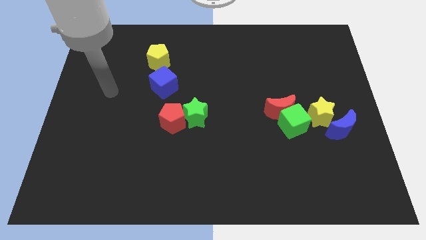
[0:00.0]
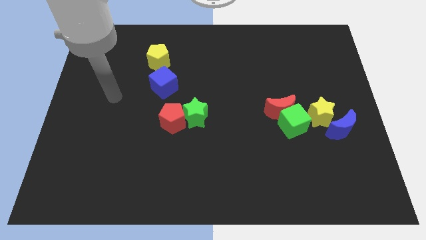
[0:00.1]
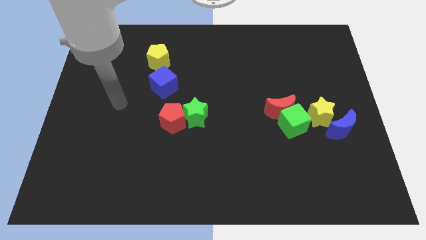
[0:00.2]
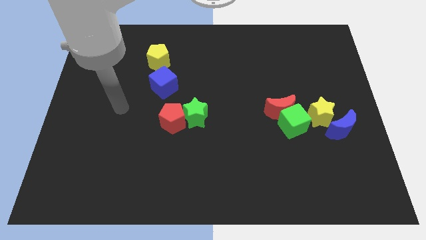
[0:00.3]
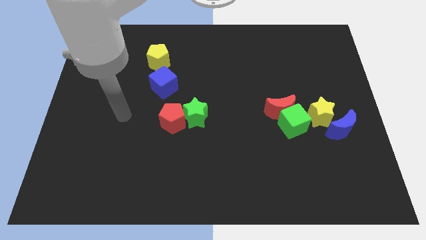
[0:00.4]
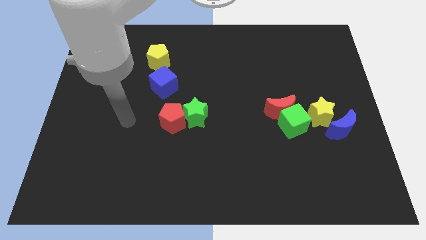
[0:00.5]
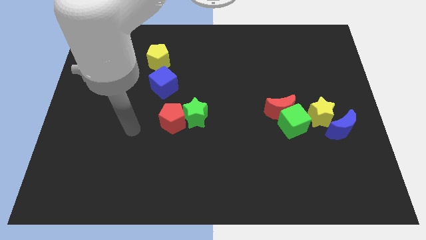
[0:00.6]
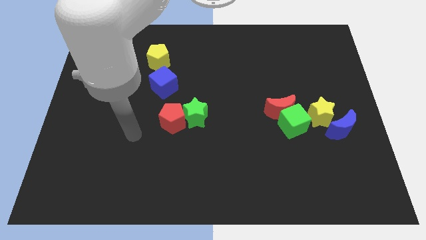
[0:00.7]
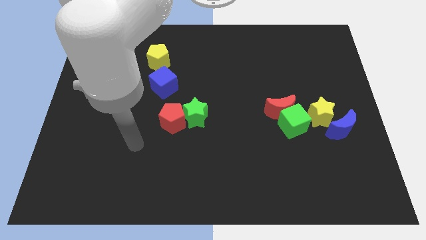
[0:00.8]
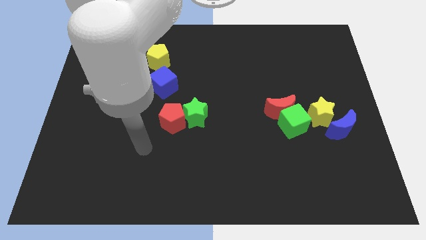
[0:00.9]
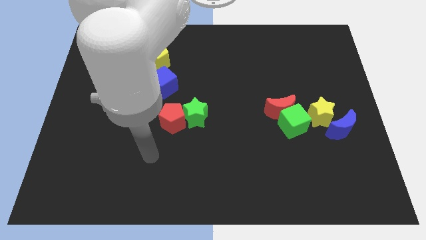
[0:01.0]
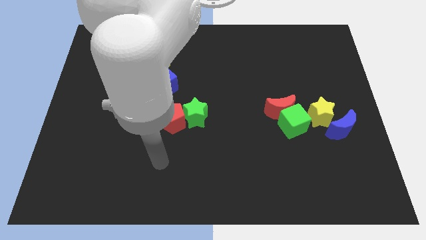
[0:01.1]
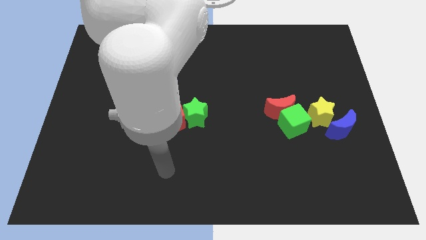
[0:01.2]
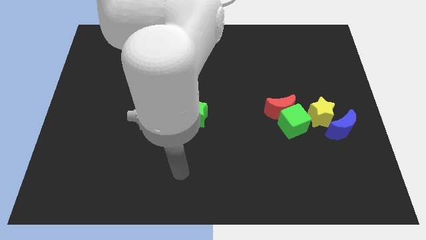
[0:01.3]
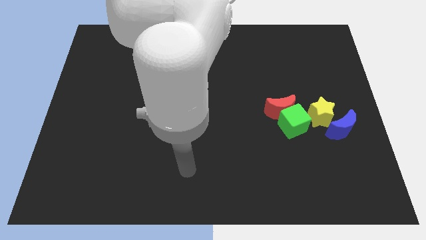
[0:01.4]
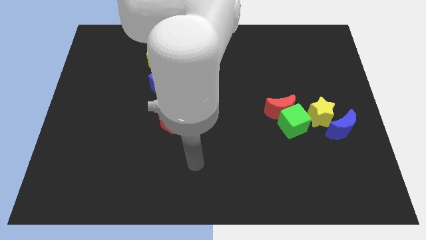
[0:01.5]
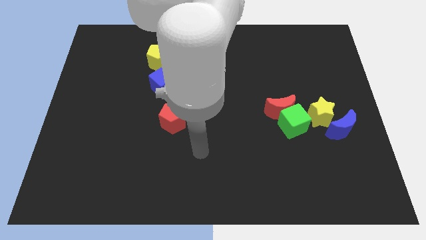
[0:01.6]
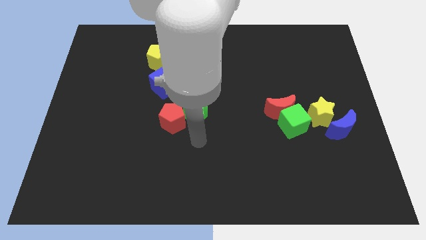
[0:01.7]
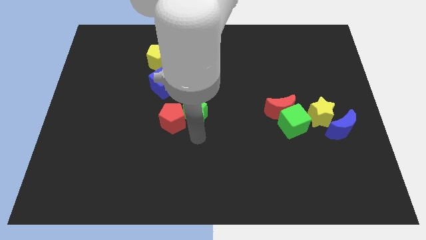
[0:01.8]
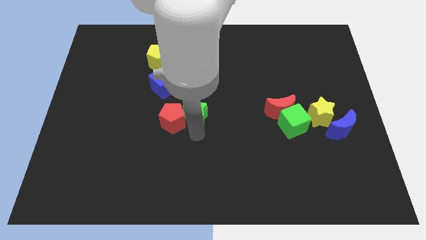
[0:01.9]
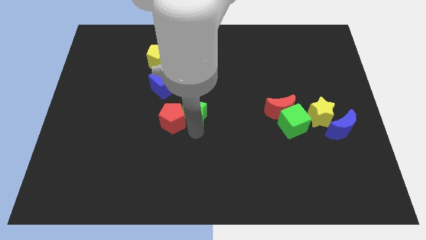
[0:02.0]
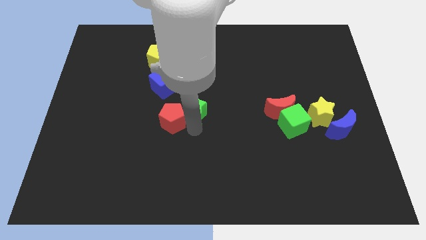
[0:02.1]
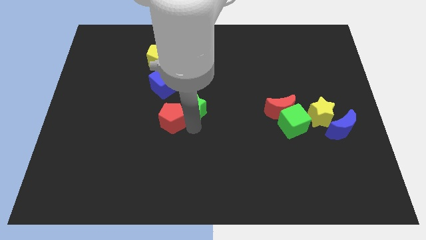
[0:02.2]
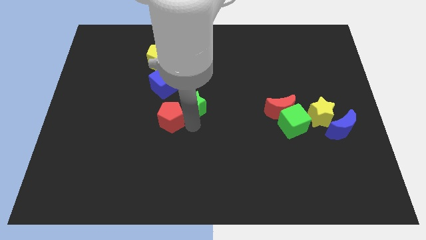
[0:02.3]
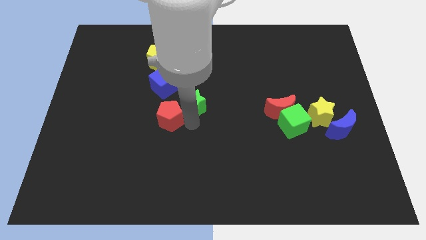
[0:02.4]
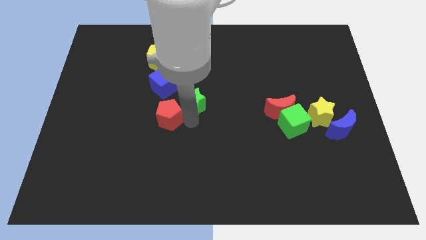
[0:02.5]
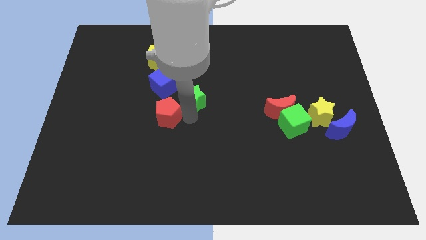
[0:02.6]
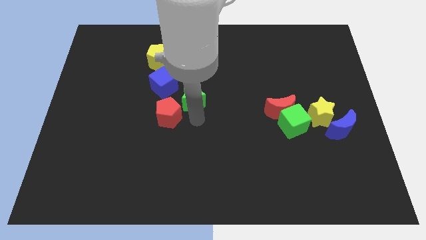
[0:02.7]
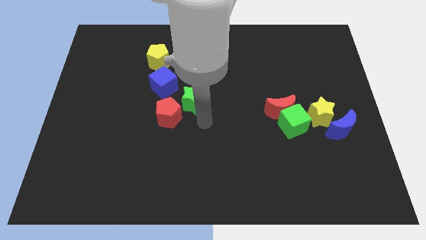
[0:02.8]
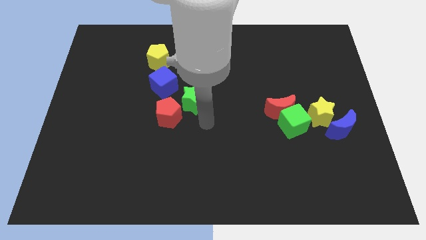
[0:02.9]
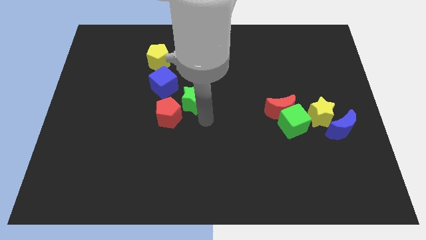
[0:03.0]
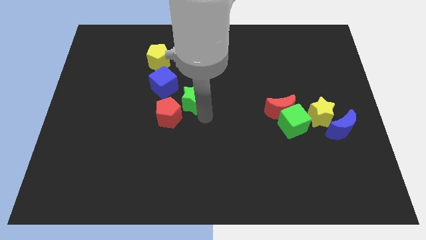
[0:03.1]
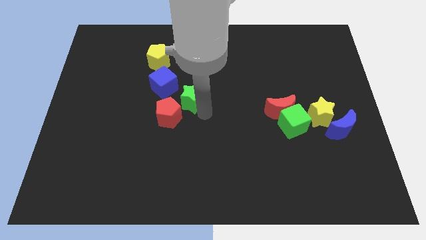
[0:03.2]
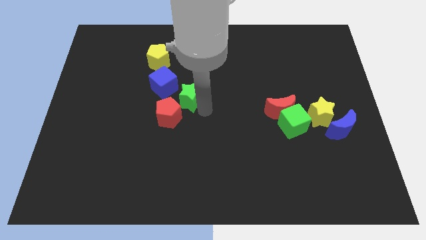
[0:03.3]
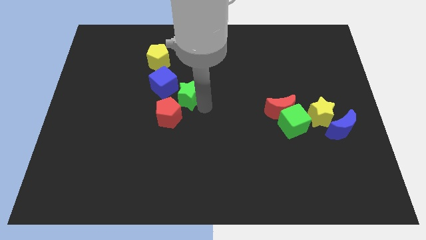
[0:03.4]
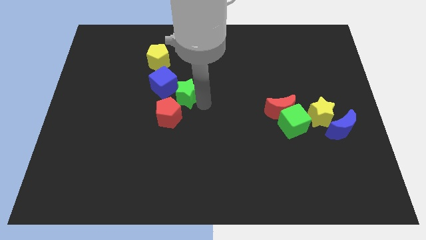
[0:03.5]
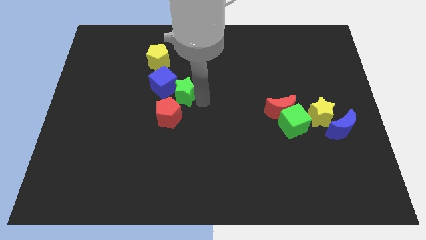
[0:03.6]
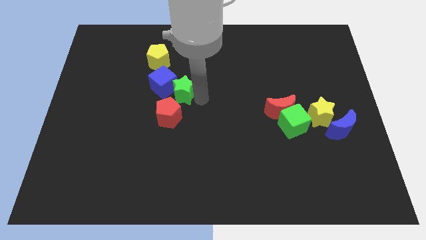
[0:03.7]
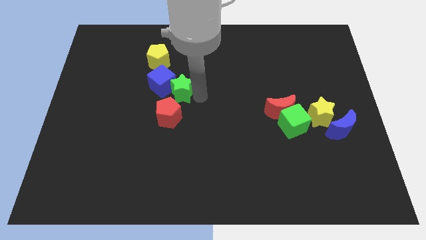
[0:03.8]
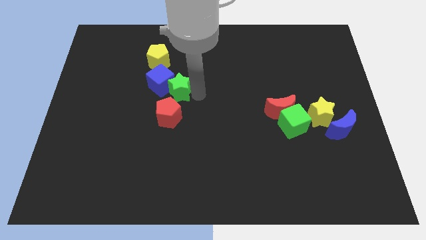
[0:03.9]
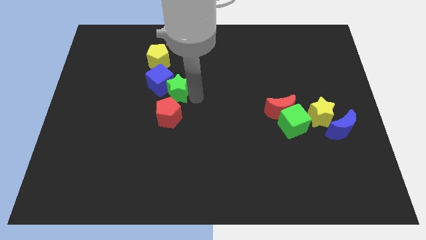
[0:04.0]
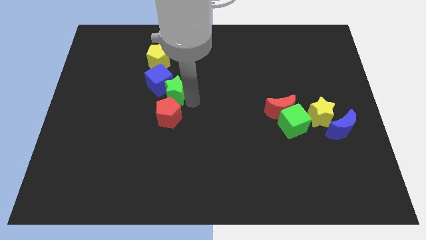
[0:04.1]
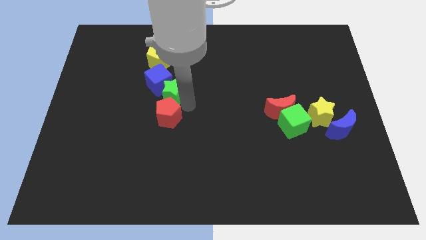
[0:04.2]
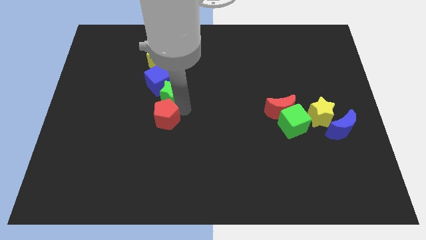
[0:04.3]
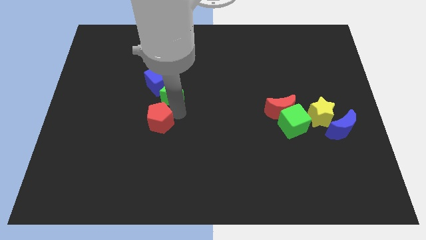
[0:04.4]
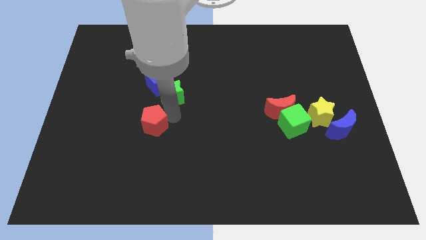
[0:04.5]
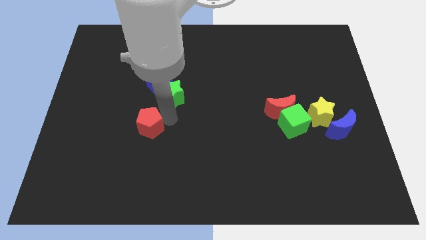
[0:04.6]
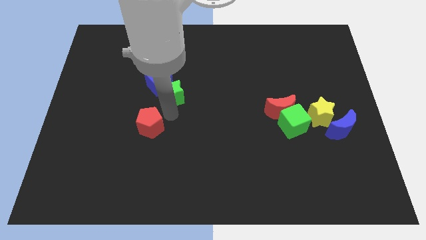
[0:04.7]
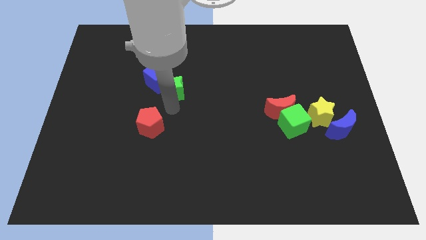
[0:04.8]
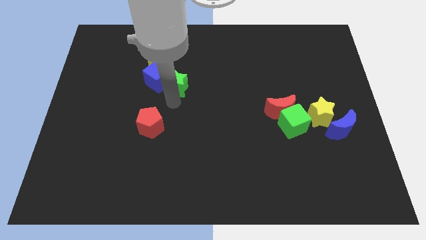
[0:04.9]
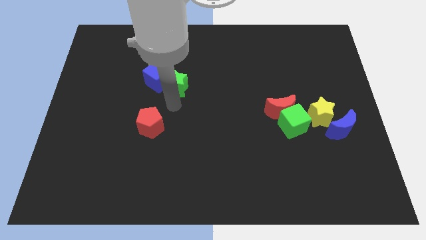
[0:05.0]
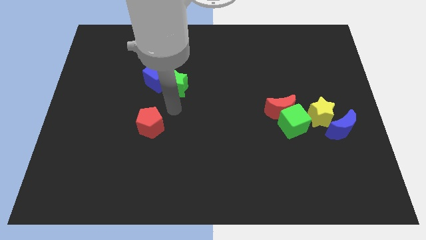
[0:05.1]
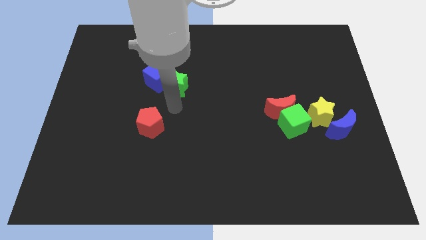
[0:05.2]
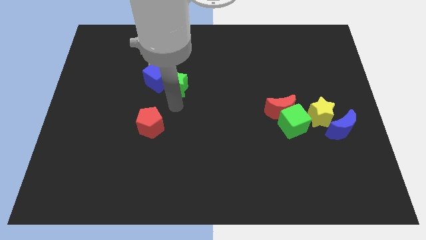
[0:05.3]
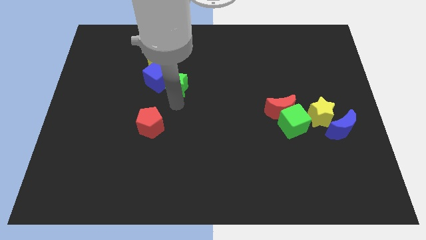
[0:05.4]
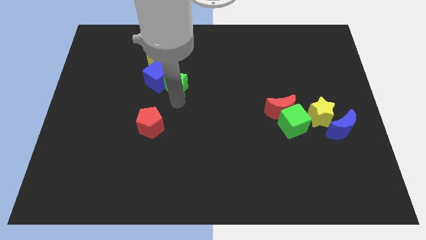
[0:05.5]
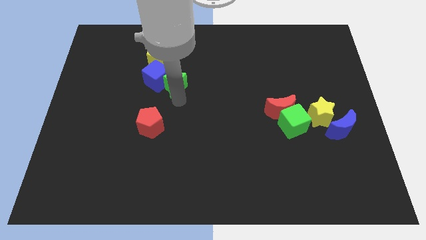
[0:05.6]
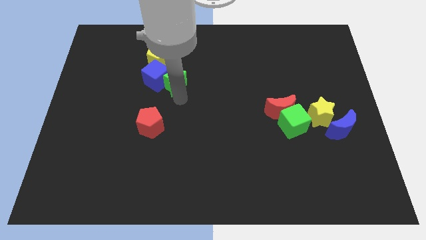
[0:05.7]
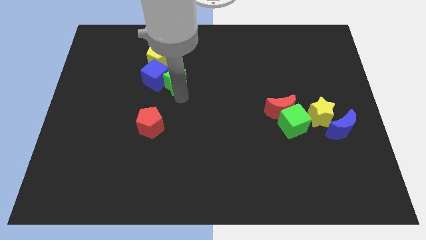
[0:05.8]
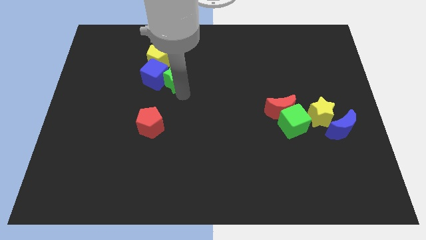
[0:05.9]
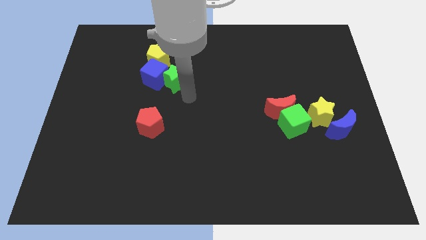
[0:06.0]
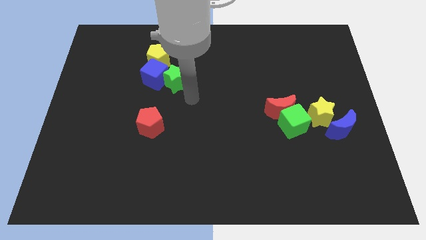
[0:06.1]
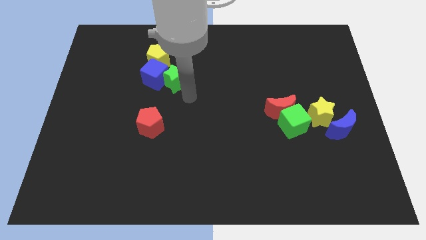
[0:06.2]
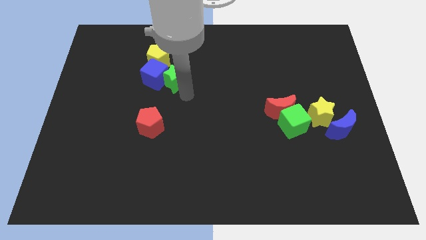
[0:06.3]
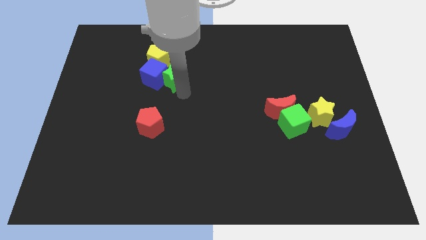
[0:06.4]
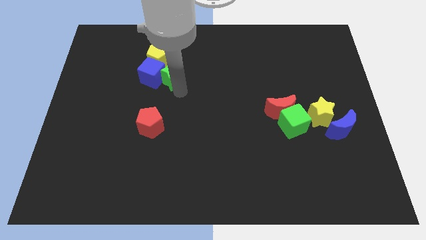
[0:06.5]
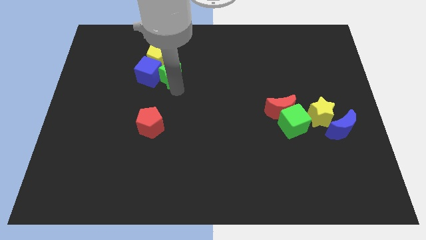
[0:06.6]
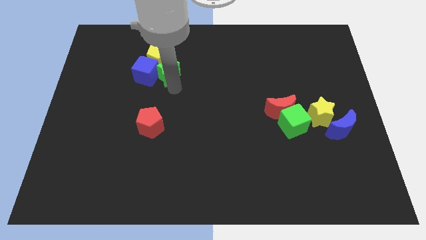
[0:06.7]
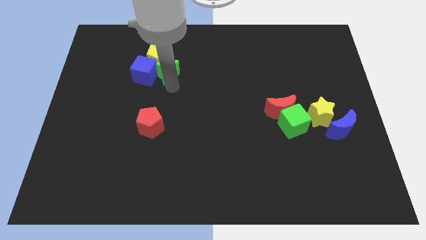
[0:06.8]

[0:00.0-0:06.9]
put the green star close to the yellow pentagon

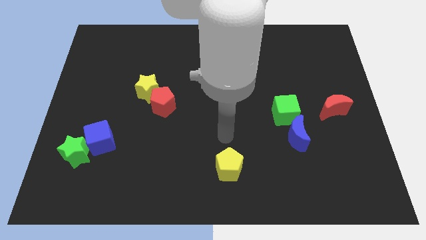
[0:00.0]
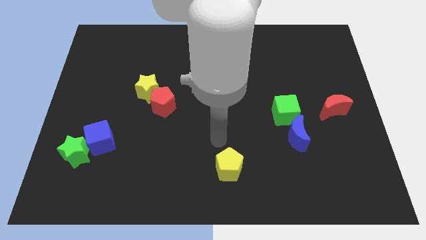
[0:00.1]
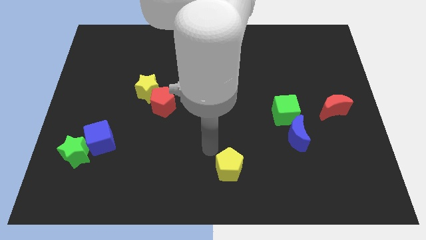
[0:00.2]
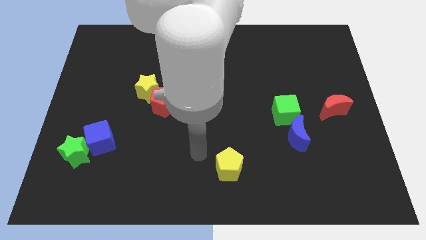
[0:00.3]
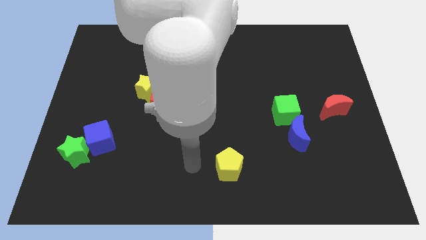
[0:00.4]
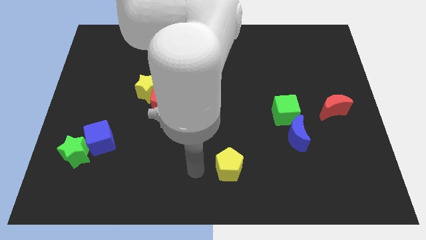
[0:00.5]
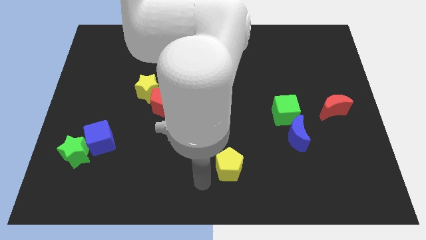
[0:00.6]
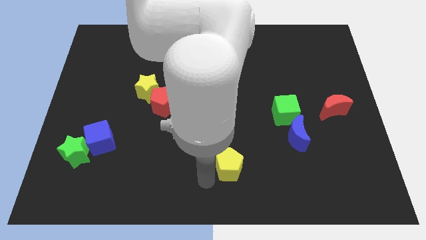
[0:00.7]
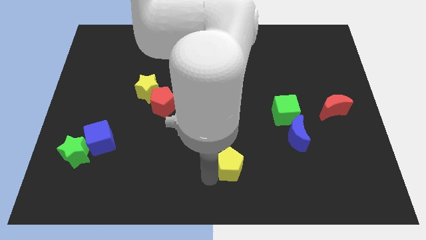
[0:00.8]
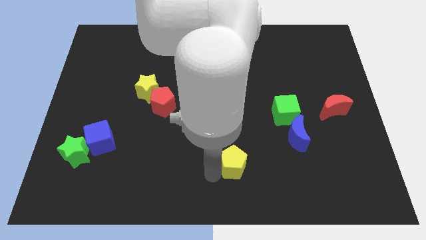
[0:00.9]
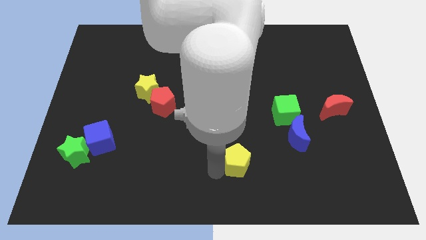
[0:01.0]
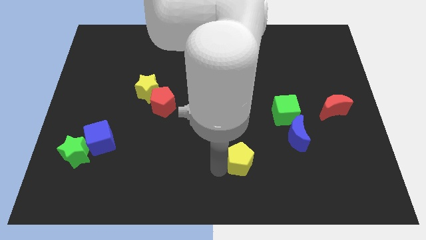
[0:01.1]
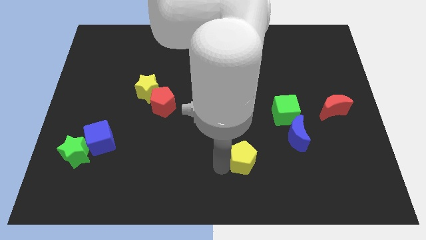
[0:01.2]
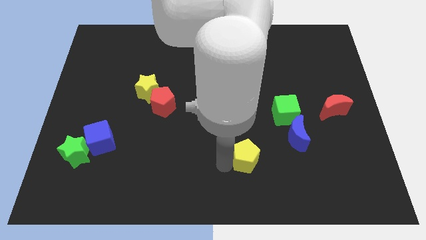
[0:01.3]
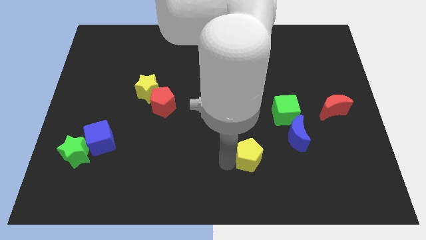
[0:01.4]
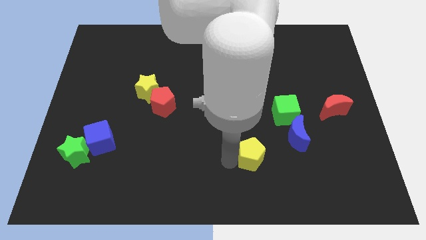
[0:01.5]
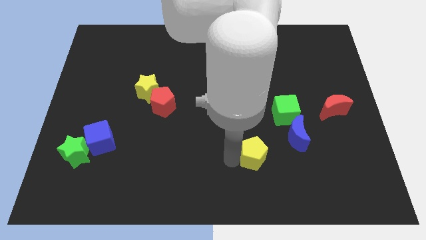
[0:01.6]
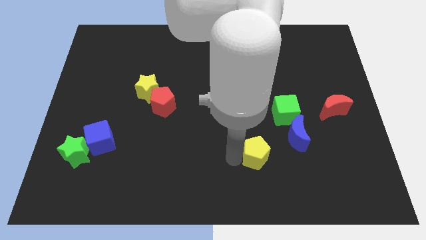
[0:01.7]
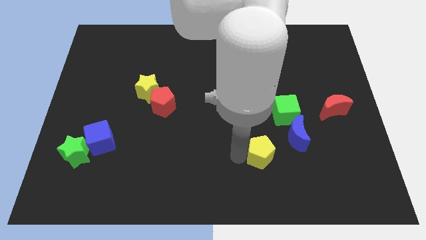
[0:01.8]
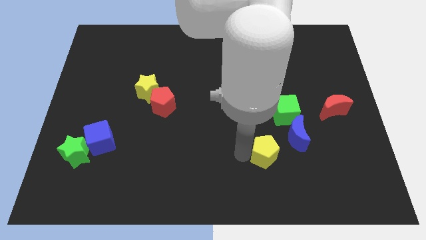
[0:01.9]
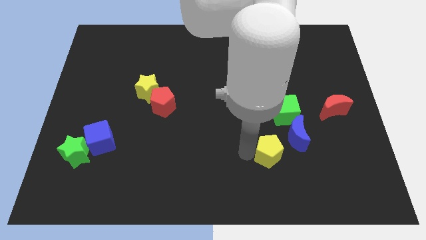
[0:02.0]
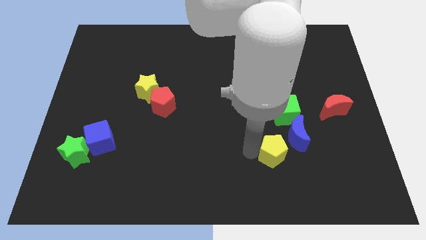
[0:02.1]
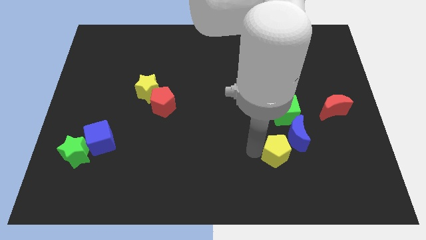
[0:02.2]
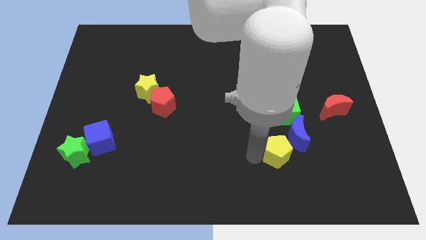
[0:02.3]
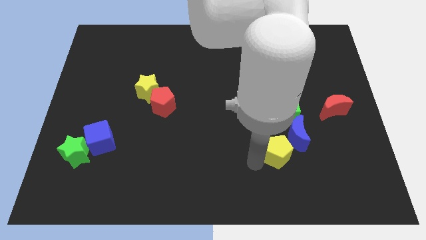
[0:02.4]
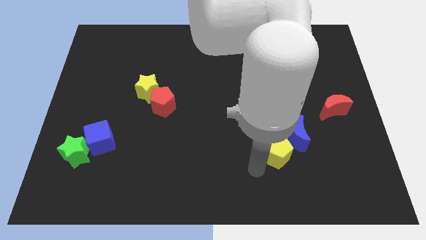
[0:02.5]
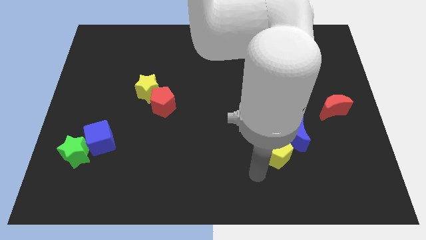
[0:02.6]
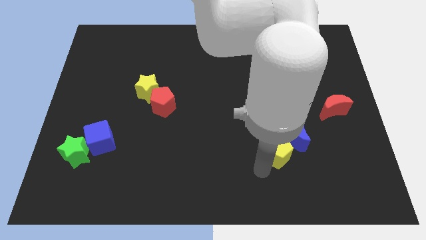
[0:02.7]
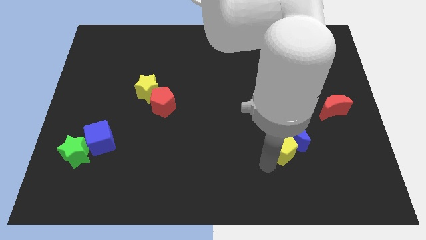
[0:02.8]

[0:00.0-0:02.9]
move the yellow pentagon next to the blue moon
